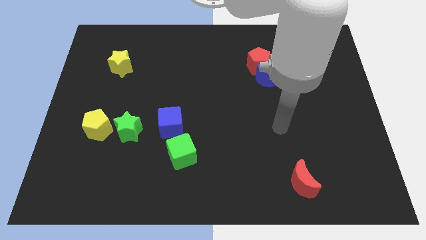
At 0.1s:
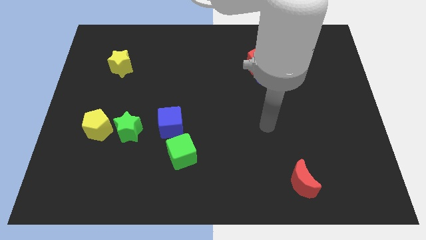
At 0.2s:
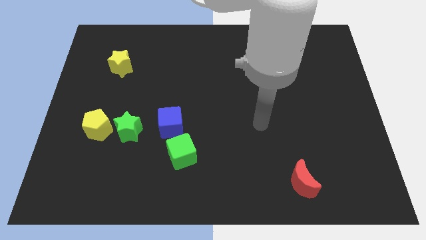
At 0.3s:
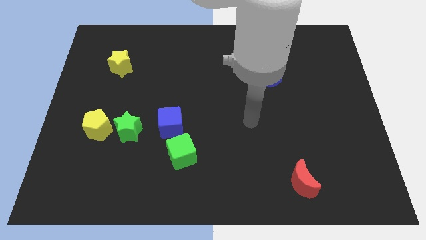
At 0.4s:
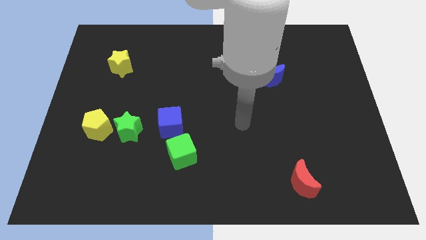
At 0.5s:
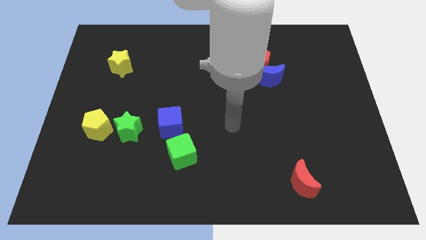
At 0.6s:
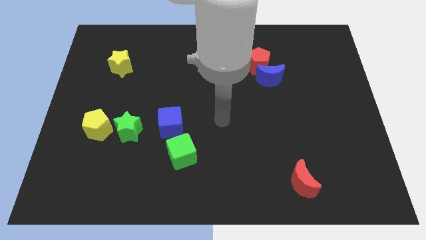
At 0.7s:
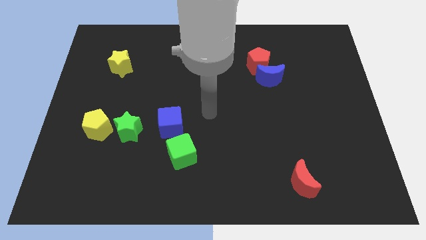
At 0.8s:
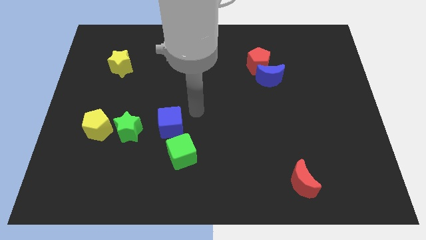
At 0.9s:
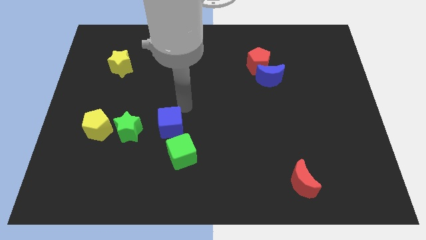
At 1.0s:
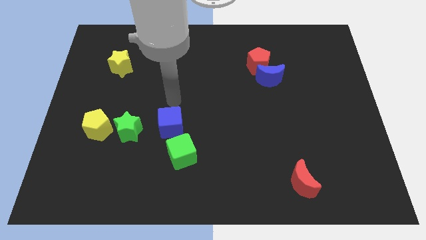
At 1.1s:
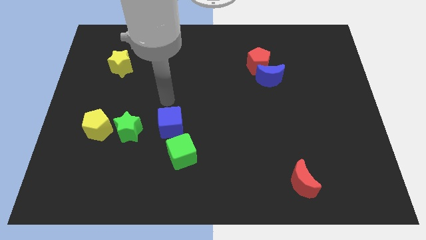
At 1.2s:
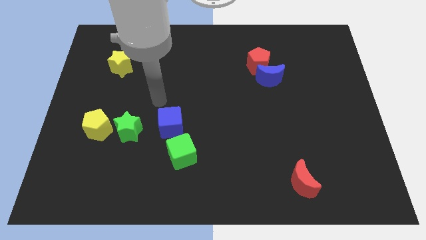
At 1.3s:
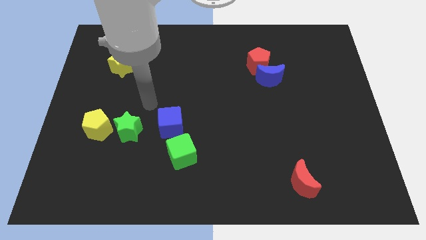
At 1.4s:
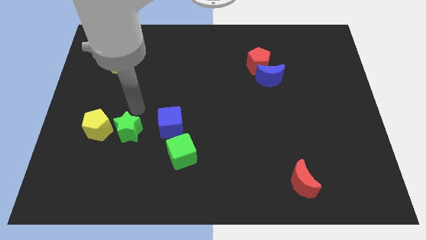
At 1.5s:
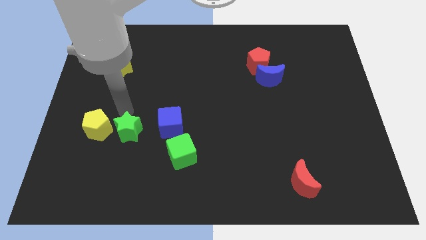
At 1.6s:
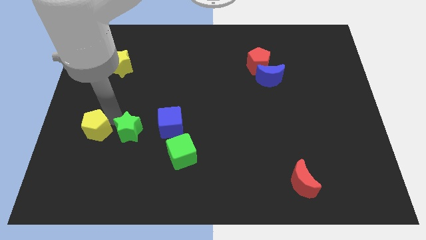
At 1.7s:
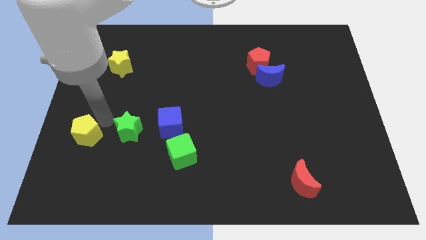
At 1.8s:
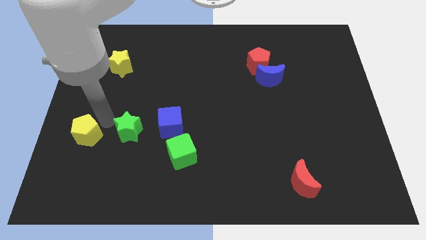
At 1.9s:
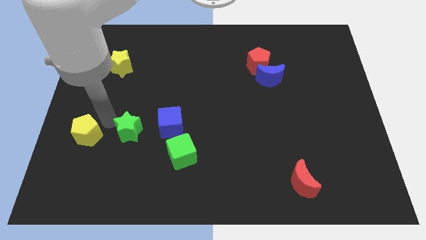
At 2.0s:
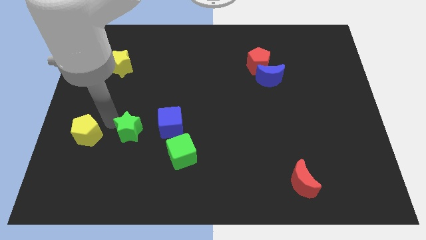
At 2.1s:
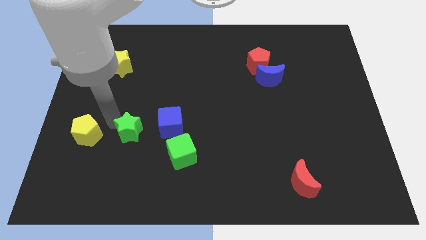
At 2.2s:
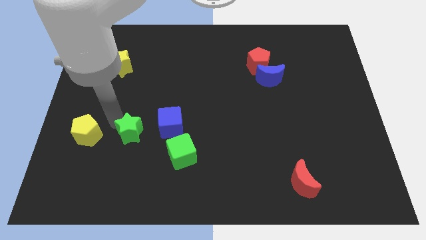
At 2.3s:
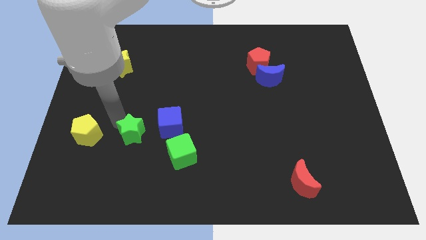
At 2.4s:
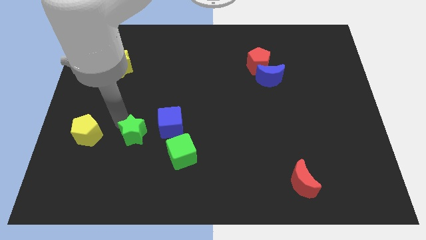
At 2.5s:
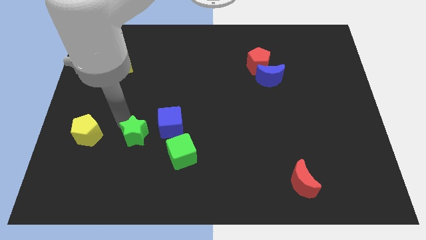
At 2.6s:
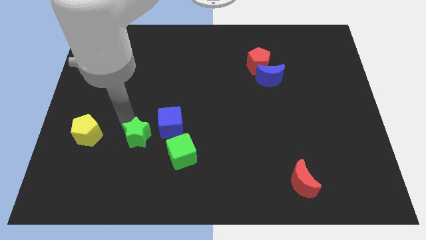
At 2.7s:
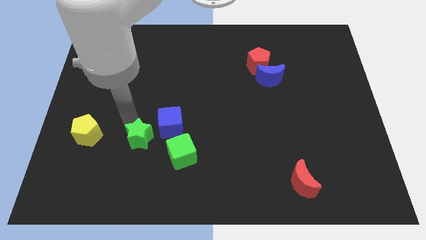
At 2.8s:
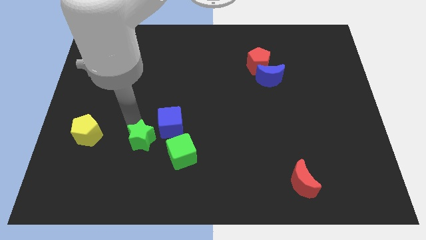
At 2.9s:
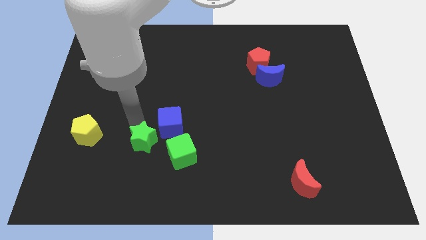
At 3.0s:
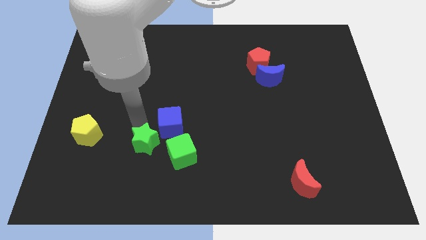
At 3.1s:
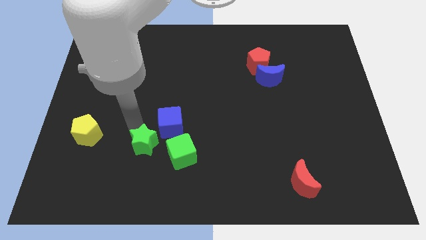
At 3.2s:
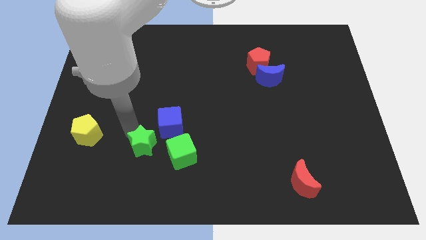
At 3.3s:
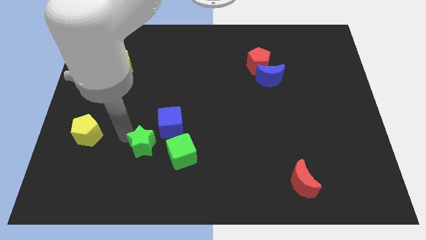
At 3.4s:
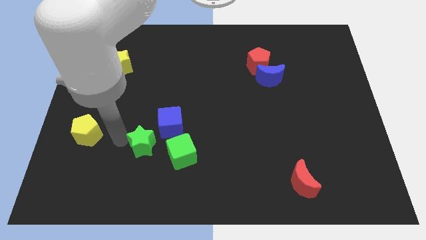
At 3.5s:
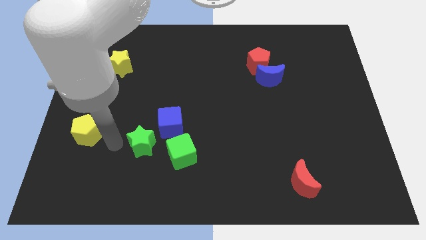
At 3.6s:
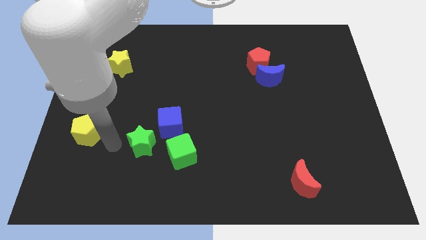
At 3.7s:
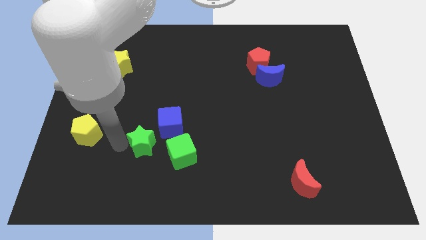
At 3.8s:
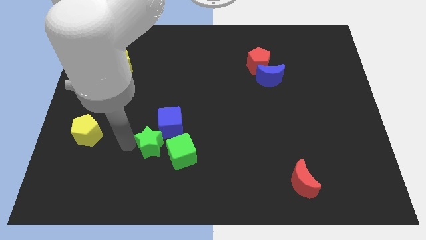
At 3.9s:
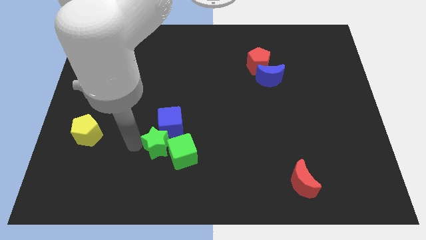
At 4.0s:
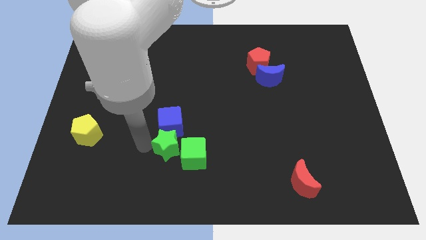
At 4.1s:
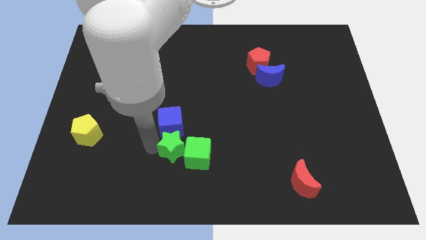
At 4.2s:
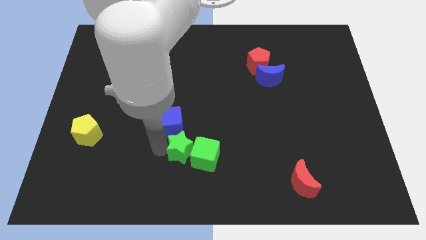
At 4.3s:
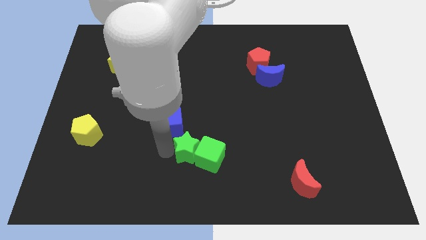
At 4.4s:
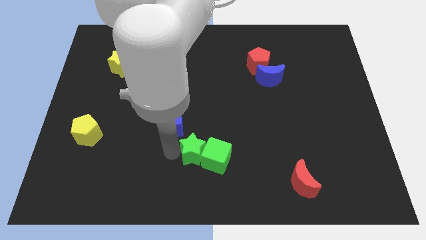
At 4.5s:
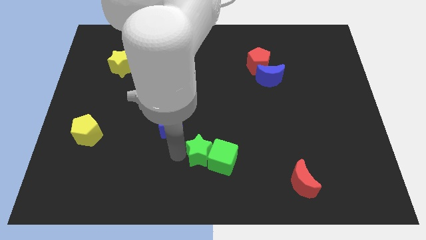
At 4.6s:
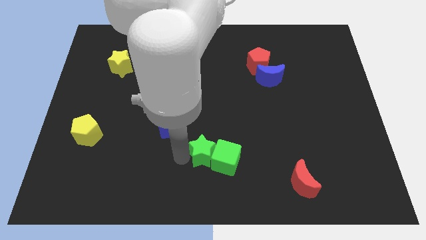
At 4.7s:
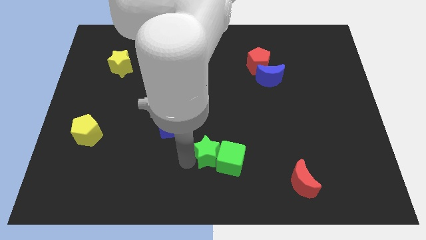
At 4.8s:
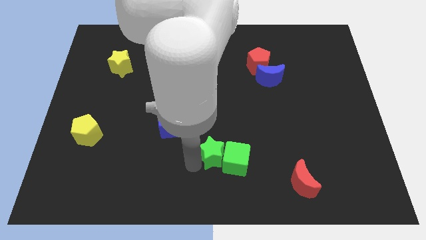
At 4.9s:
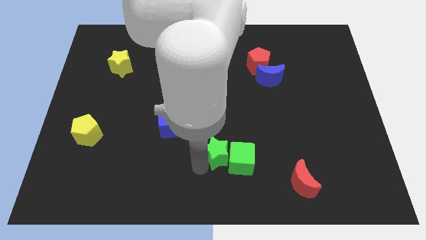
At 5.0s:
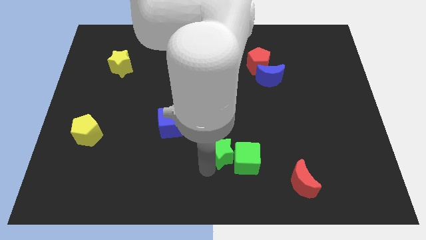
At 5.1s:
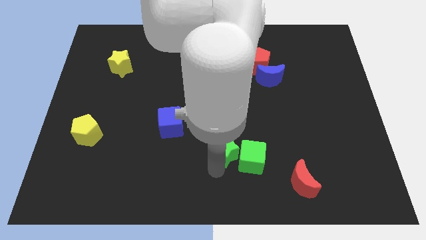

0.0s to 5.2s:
push the green star right

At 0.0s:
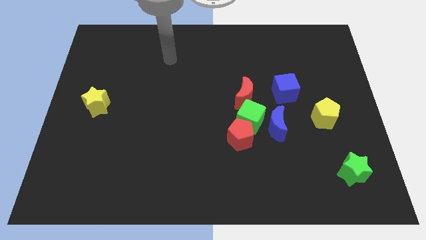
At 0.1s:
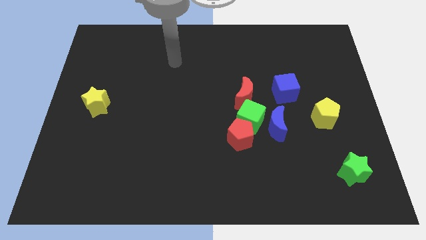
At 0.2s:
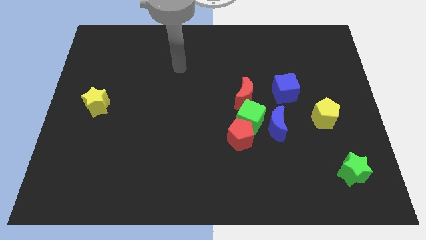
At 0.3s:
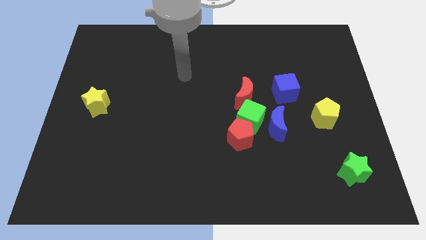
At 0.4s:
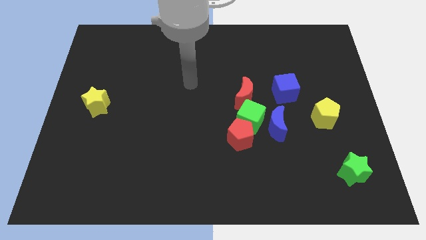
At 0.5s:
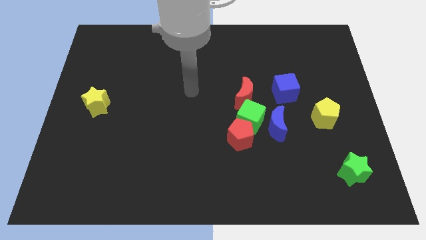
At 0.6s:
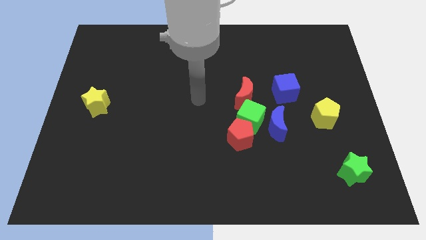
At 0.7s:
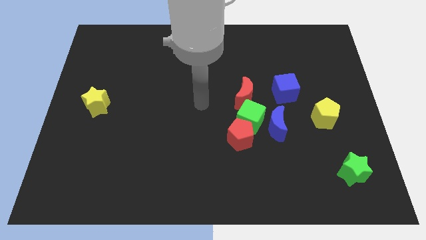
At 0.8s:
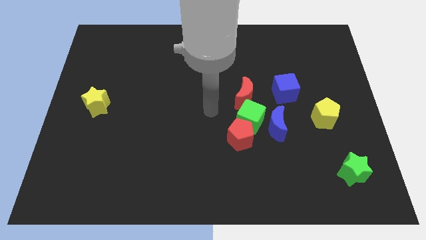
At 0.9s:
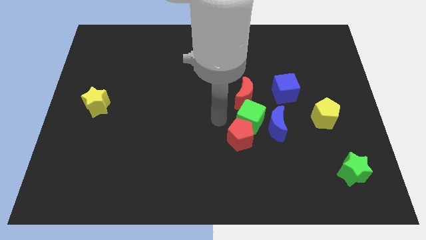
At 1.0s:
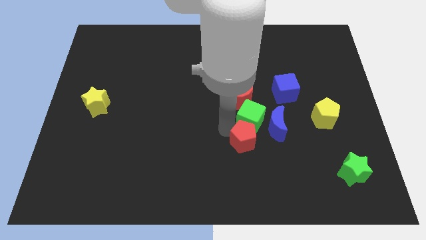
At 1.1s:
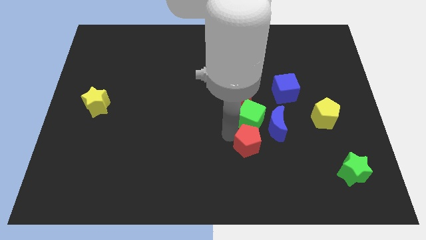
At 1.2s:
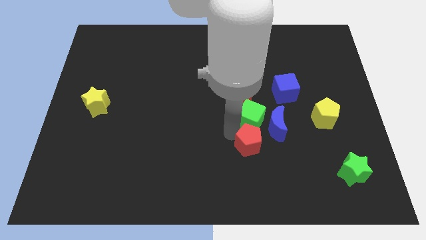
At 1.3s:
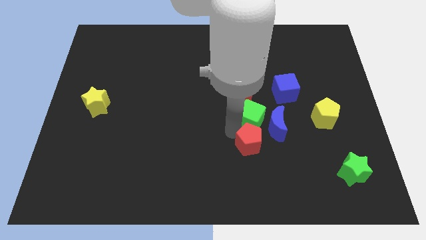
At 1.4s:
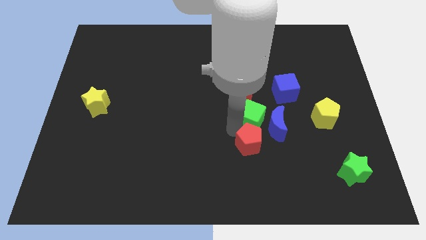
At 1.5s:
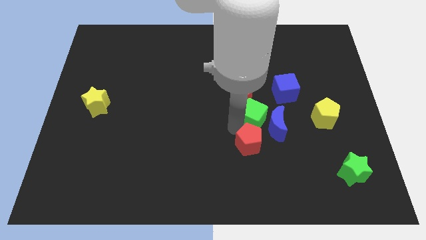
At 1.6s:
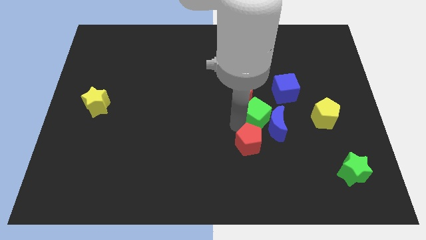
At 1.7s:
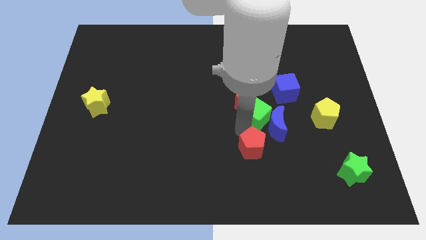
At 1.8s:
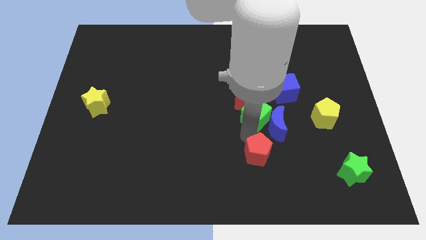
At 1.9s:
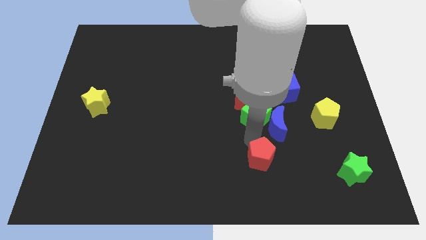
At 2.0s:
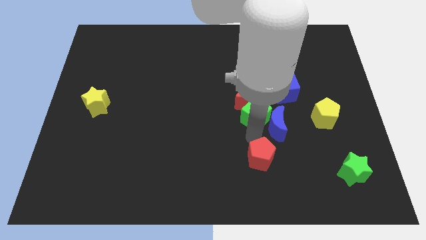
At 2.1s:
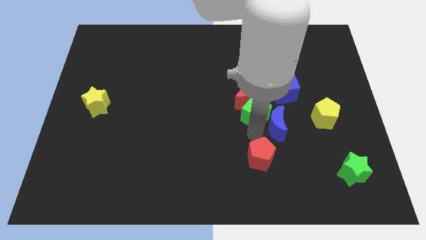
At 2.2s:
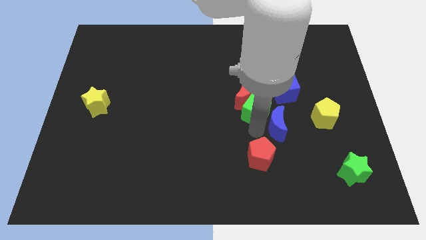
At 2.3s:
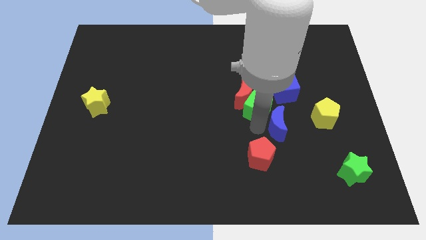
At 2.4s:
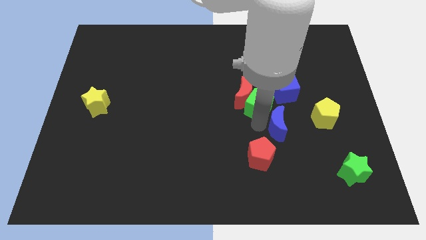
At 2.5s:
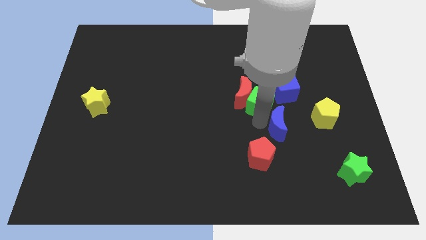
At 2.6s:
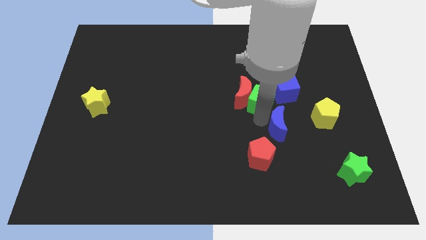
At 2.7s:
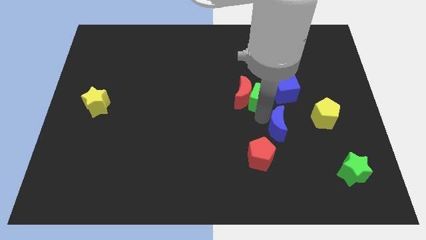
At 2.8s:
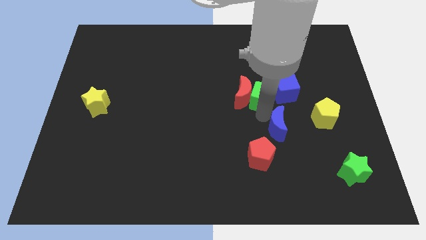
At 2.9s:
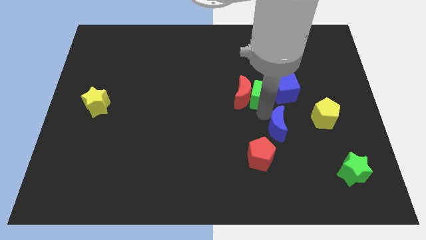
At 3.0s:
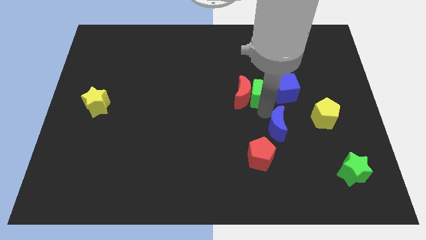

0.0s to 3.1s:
move the green cube upwards and then right a little
